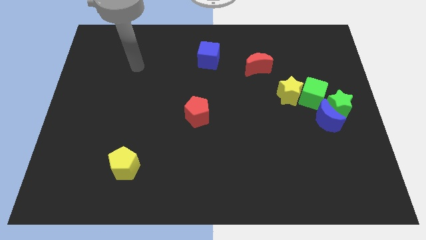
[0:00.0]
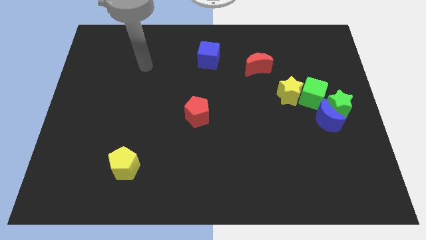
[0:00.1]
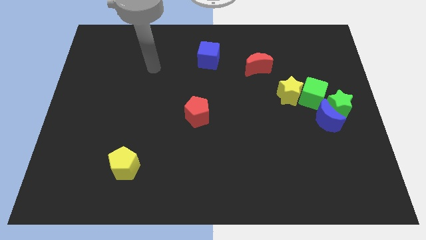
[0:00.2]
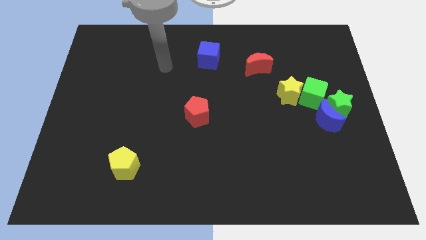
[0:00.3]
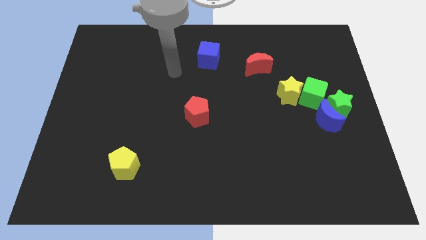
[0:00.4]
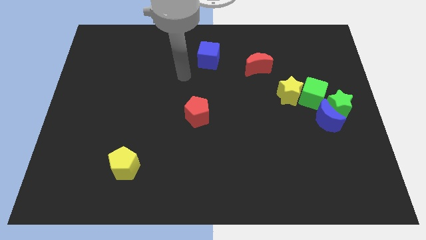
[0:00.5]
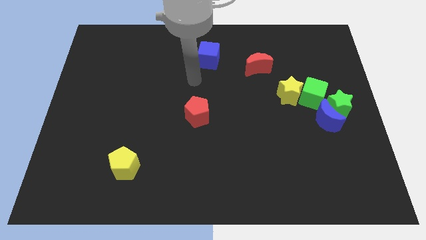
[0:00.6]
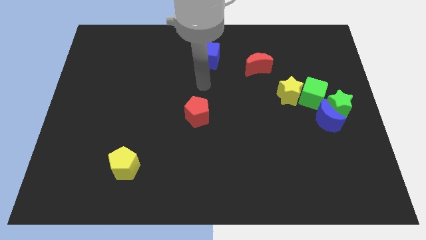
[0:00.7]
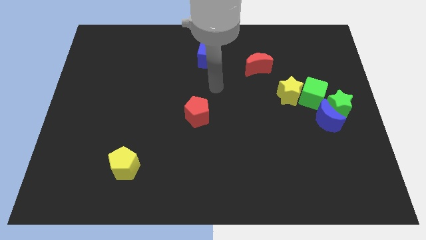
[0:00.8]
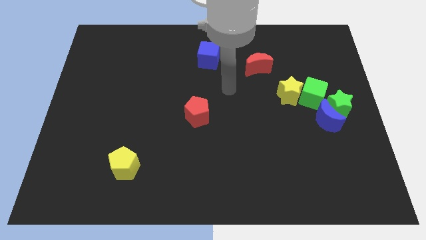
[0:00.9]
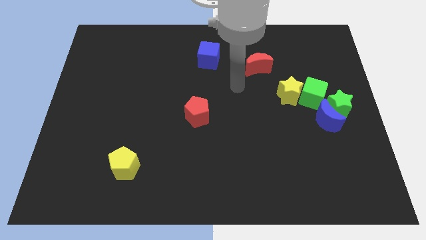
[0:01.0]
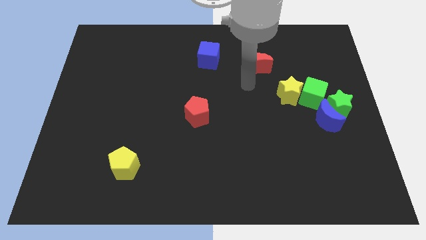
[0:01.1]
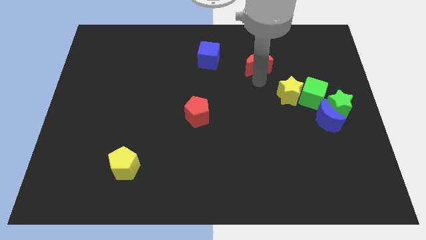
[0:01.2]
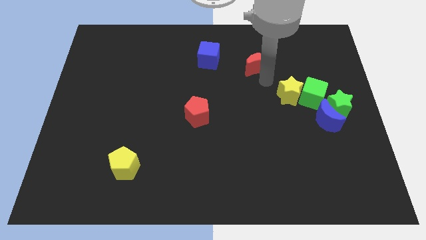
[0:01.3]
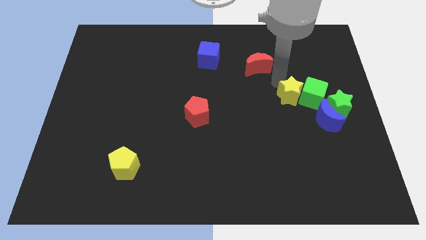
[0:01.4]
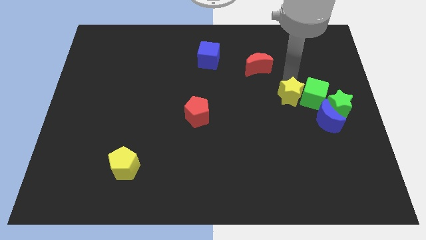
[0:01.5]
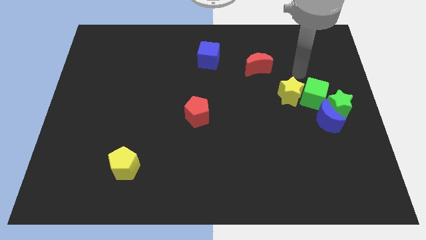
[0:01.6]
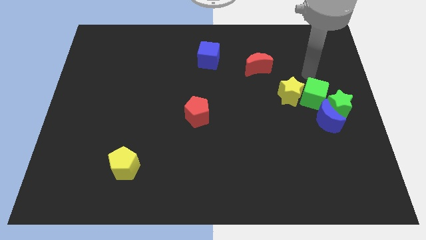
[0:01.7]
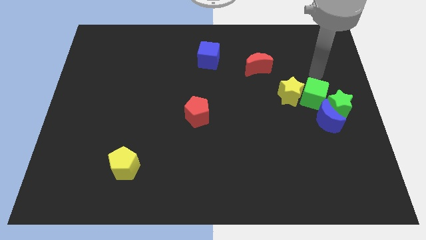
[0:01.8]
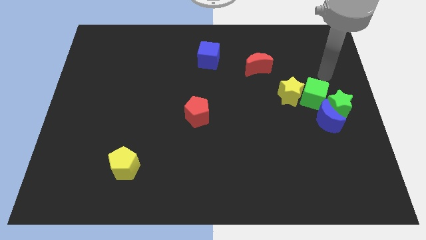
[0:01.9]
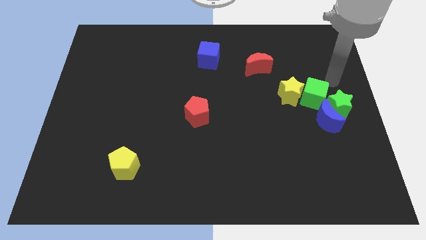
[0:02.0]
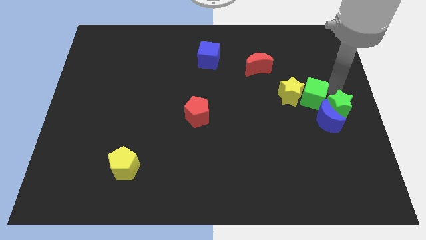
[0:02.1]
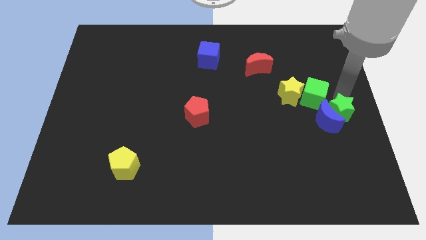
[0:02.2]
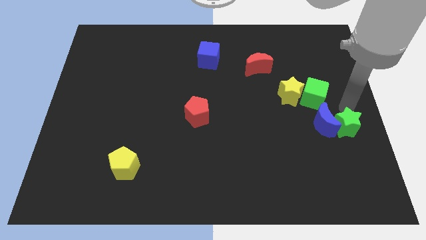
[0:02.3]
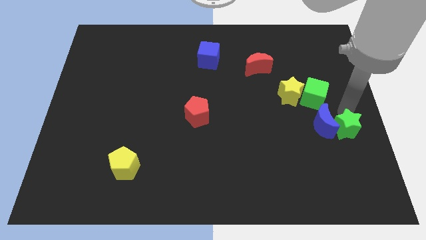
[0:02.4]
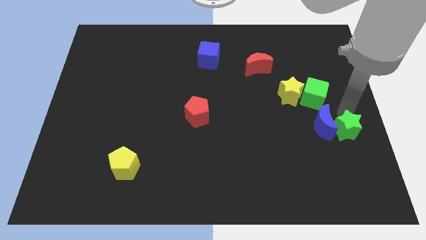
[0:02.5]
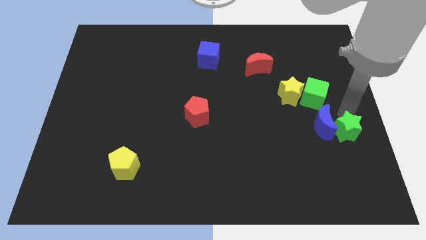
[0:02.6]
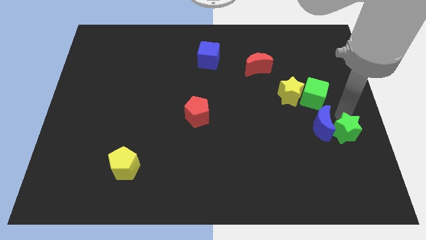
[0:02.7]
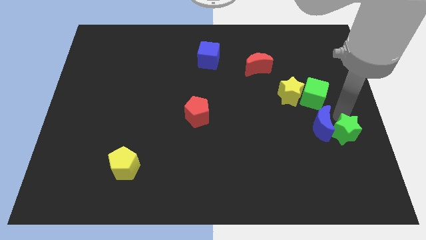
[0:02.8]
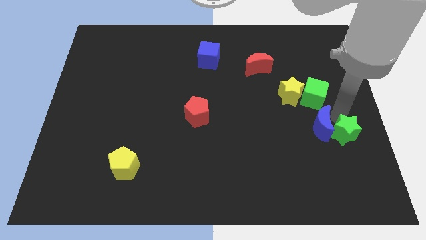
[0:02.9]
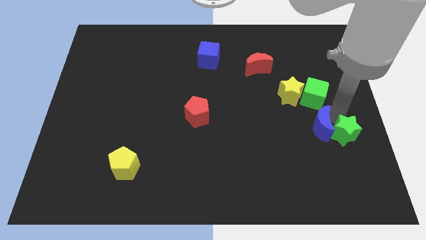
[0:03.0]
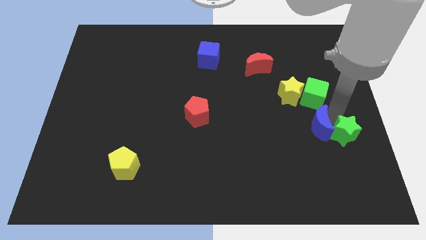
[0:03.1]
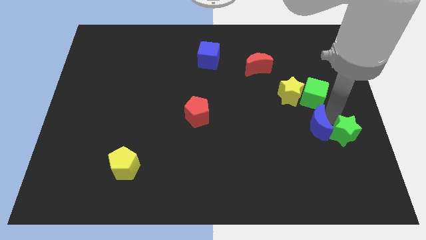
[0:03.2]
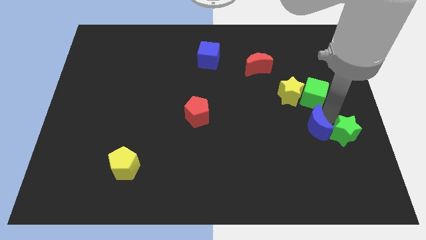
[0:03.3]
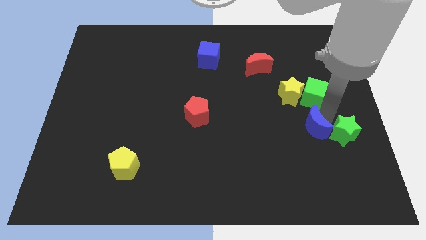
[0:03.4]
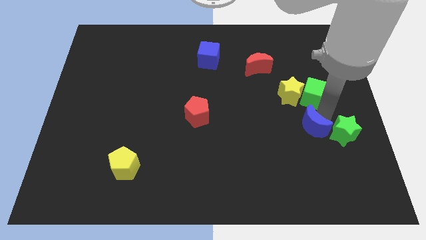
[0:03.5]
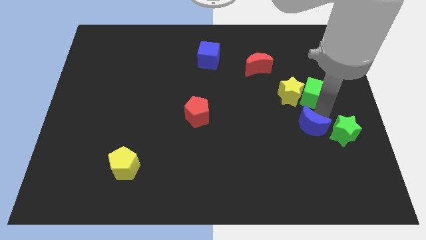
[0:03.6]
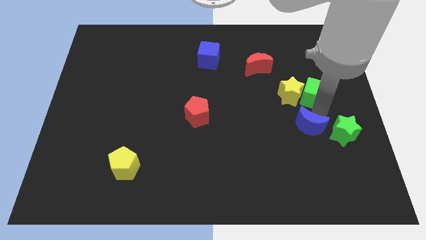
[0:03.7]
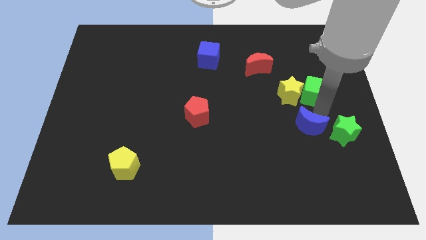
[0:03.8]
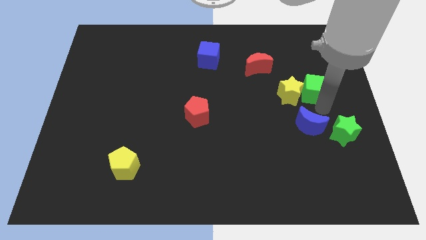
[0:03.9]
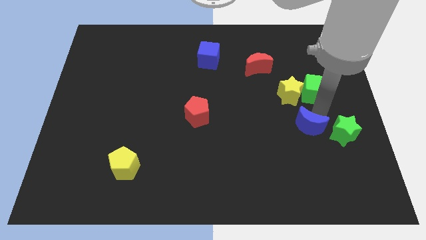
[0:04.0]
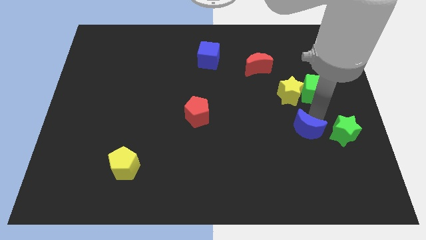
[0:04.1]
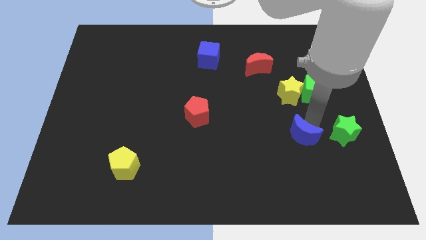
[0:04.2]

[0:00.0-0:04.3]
push the blue moon diagonally down and to the left a little bit

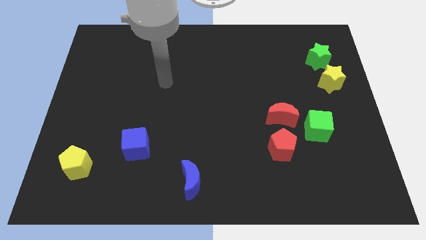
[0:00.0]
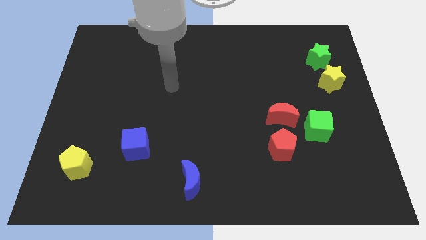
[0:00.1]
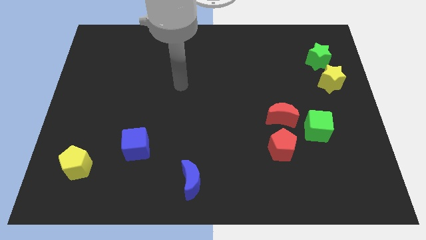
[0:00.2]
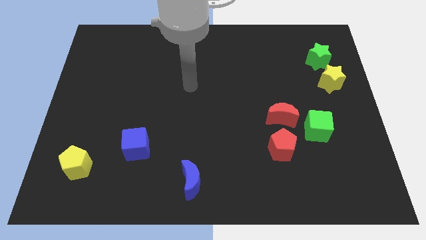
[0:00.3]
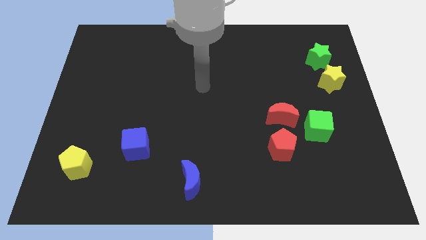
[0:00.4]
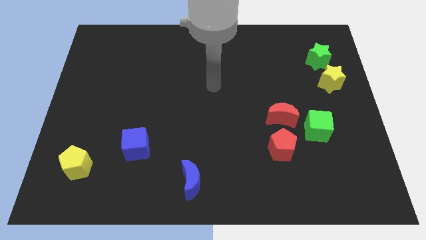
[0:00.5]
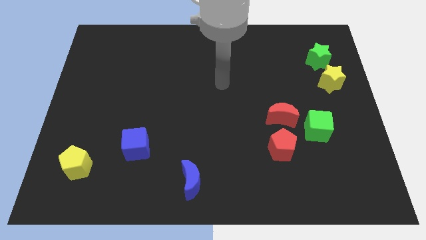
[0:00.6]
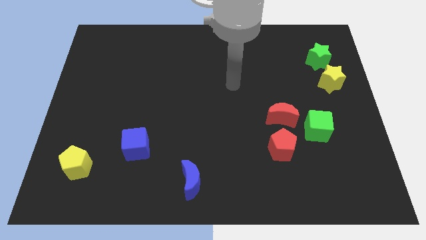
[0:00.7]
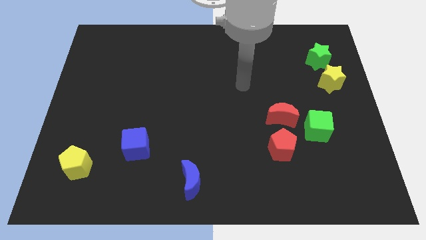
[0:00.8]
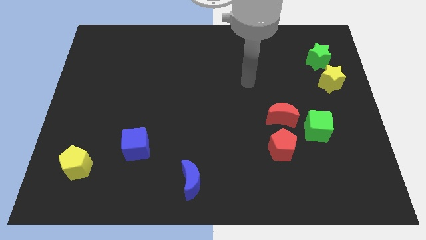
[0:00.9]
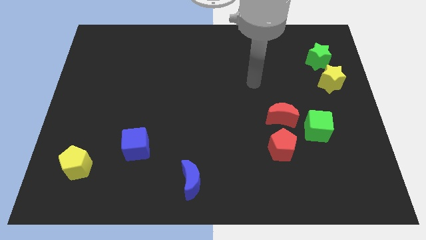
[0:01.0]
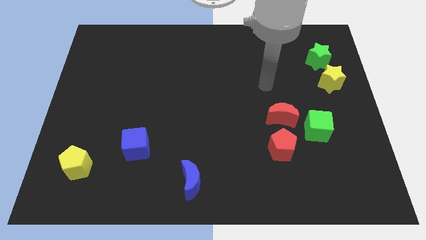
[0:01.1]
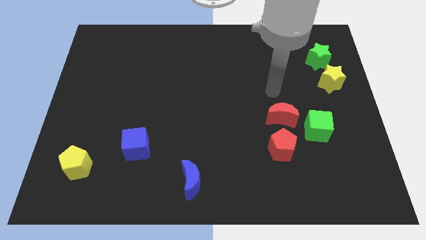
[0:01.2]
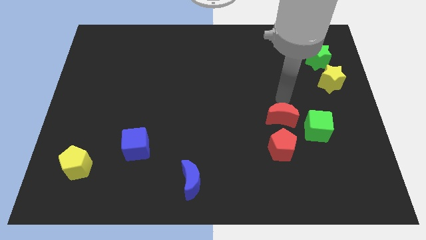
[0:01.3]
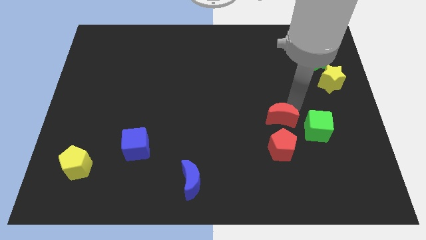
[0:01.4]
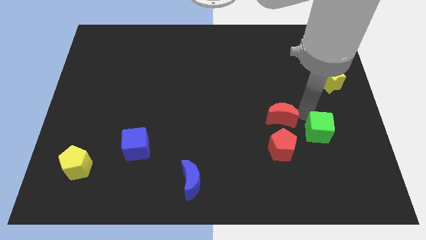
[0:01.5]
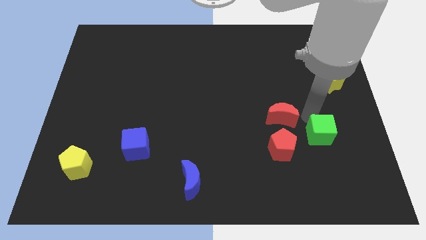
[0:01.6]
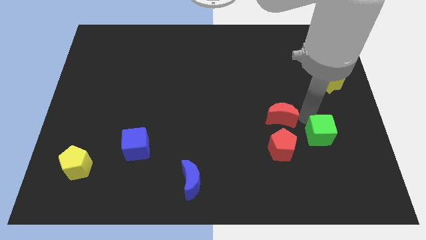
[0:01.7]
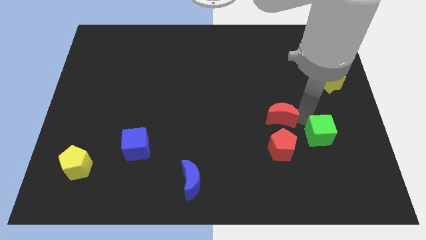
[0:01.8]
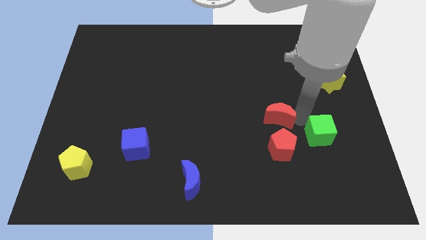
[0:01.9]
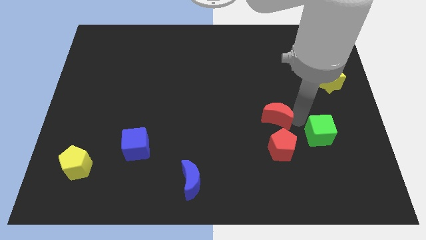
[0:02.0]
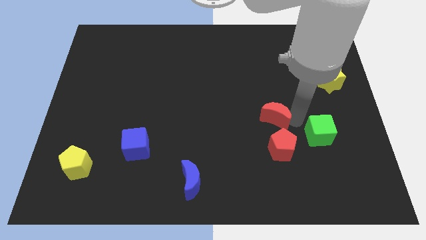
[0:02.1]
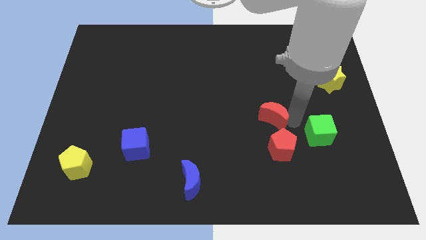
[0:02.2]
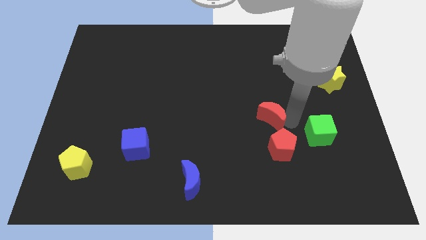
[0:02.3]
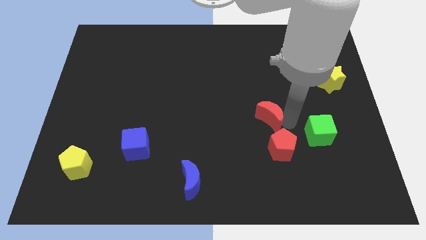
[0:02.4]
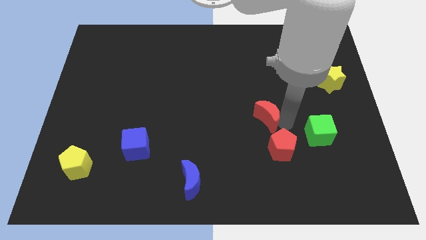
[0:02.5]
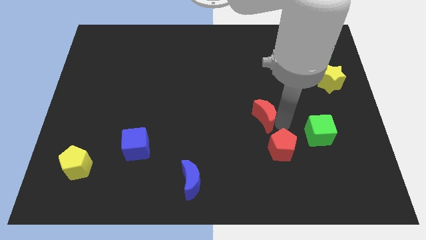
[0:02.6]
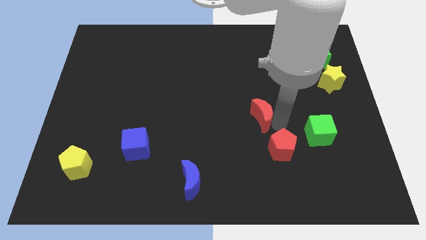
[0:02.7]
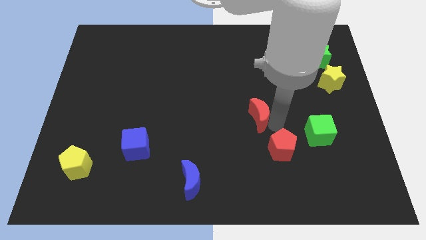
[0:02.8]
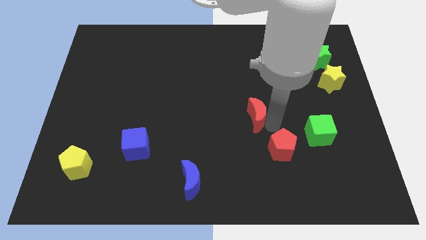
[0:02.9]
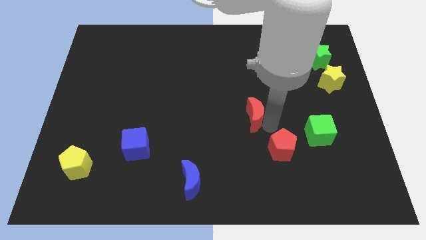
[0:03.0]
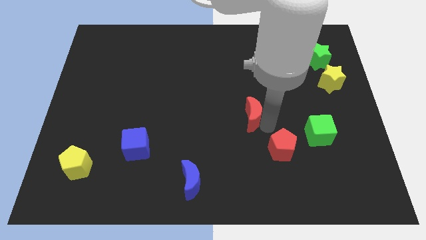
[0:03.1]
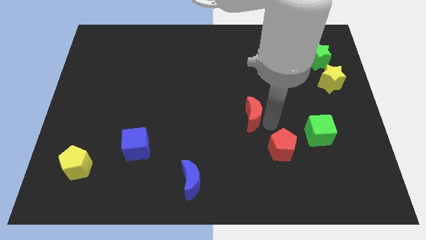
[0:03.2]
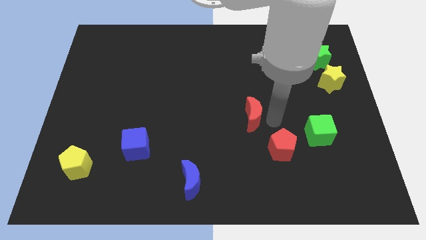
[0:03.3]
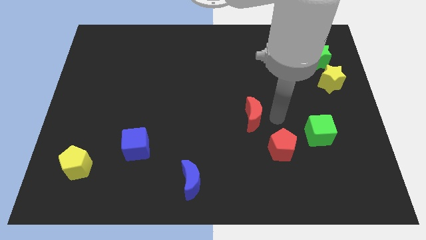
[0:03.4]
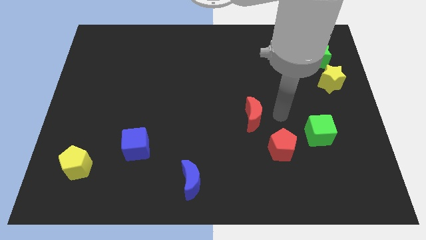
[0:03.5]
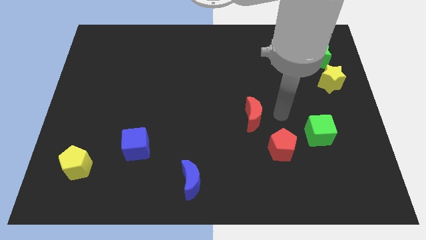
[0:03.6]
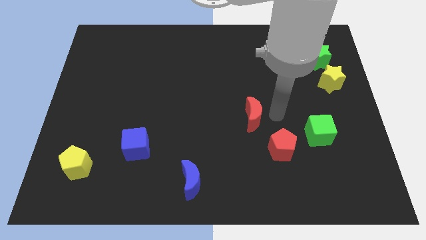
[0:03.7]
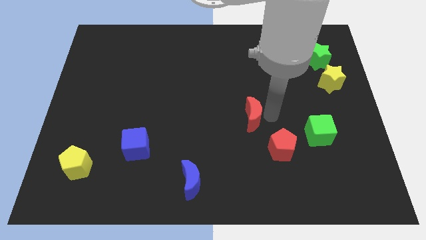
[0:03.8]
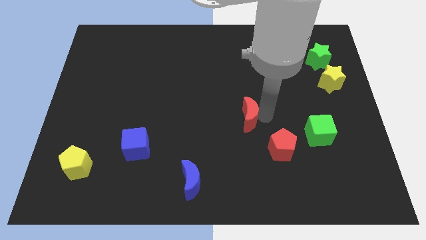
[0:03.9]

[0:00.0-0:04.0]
push the red moon somewhat to the left
